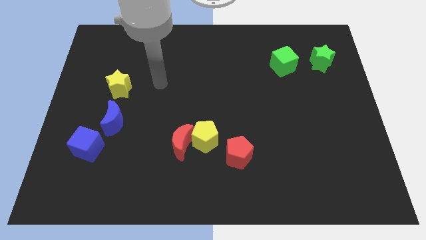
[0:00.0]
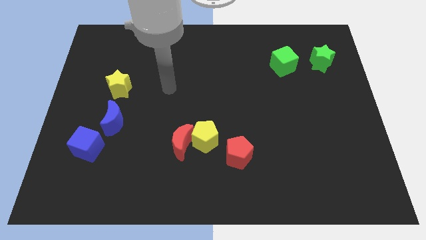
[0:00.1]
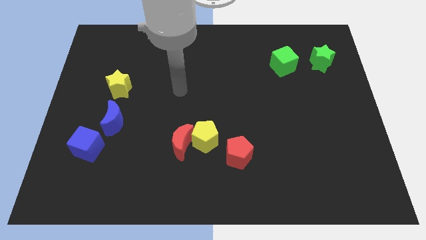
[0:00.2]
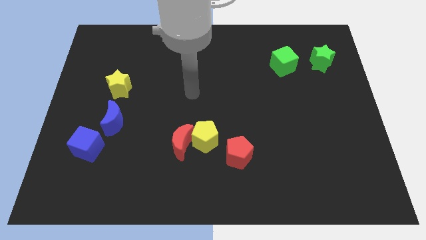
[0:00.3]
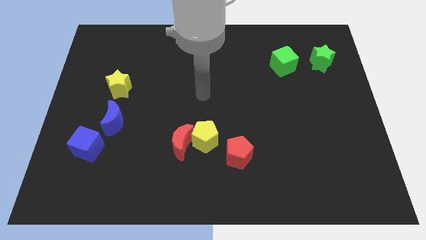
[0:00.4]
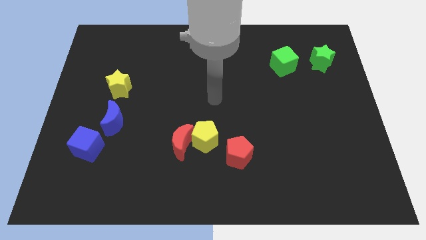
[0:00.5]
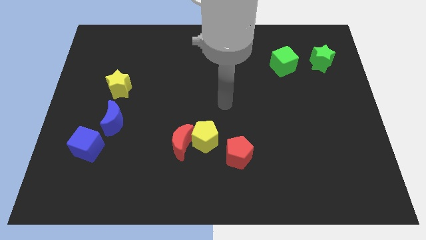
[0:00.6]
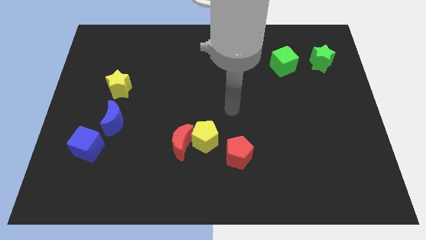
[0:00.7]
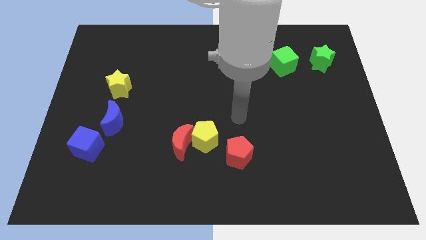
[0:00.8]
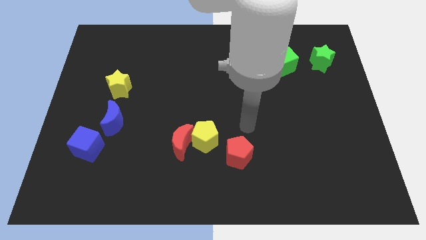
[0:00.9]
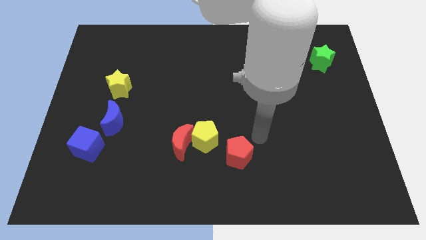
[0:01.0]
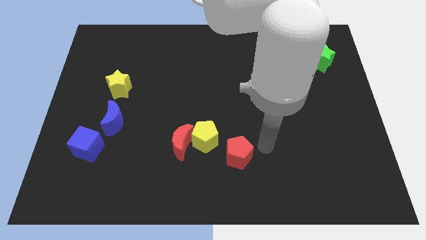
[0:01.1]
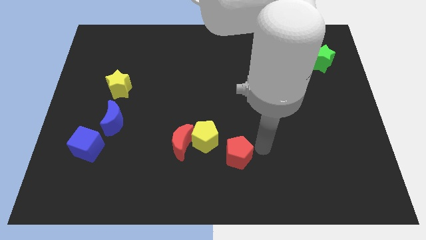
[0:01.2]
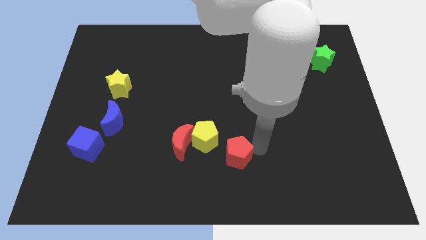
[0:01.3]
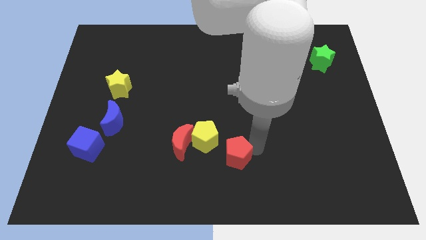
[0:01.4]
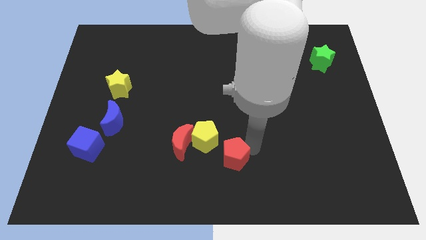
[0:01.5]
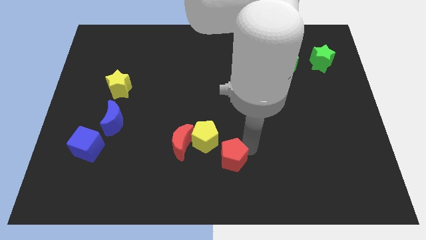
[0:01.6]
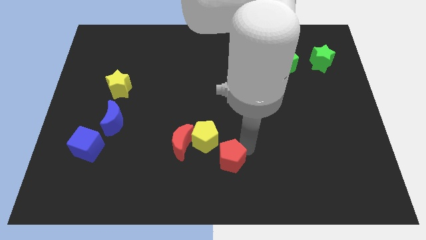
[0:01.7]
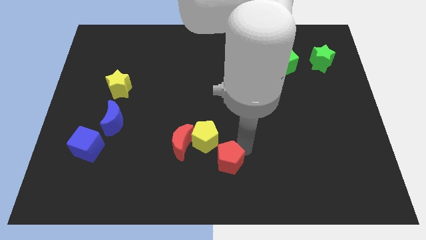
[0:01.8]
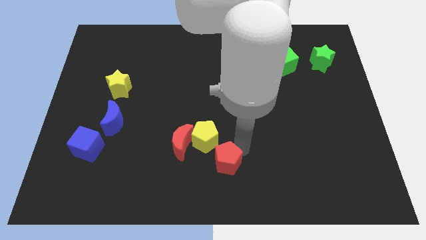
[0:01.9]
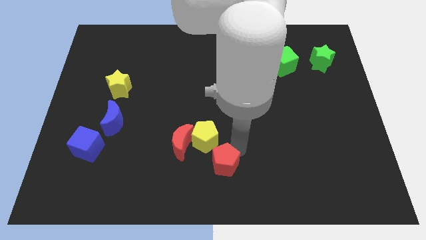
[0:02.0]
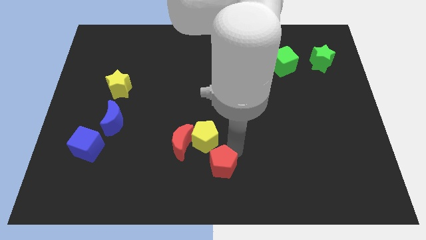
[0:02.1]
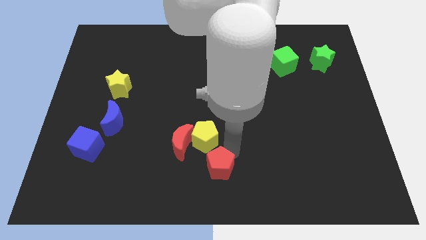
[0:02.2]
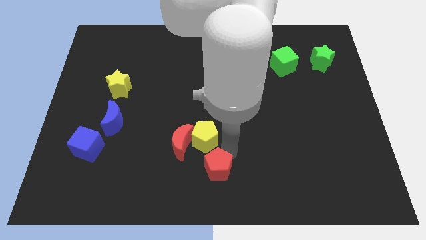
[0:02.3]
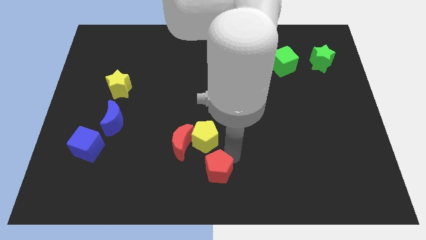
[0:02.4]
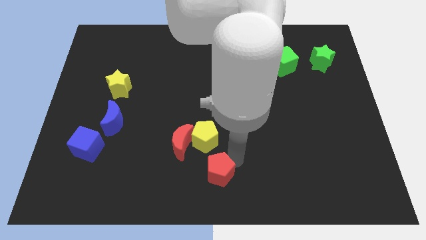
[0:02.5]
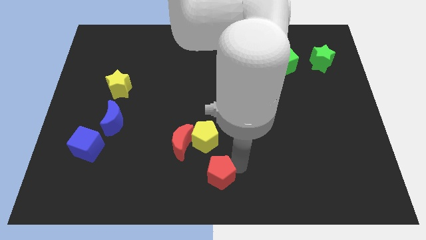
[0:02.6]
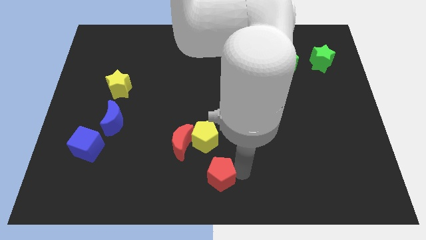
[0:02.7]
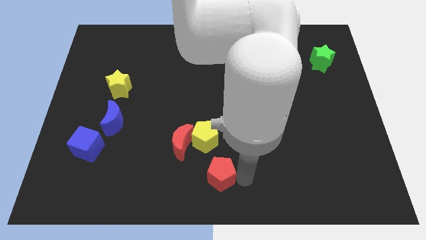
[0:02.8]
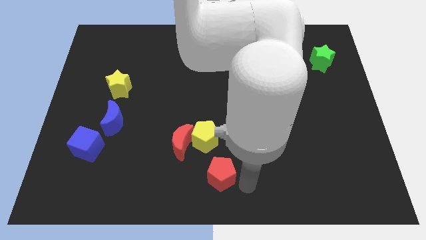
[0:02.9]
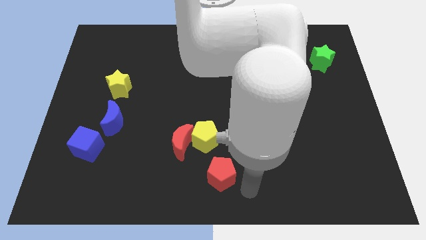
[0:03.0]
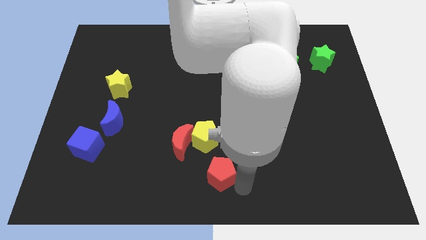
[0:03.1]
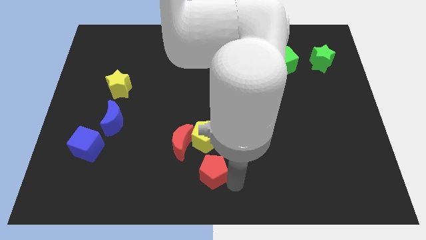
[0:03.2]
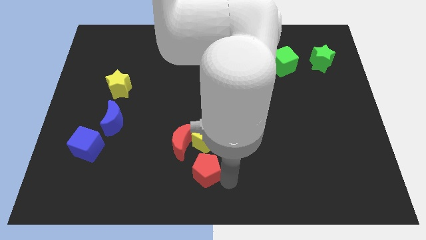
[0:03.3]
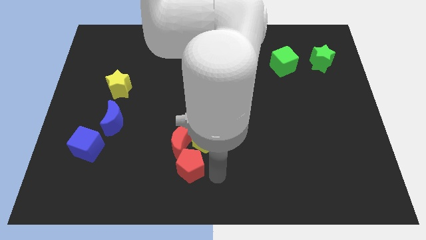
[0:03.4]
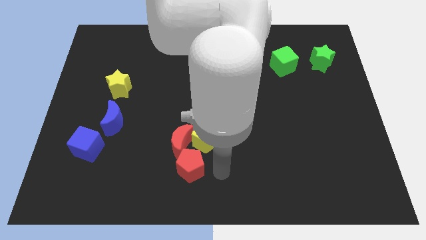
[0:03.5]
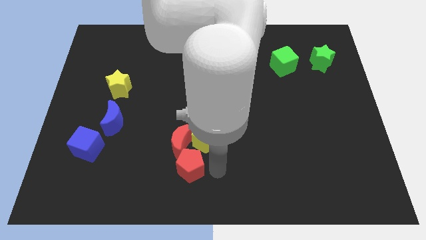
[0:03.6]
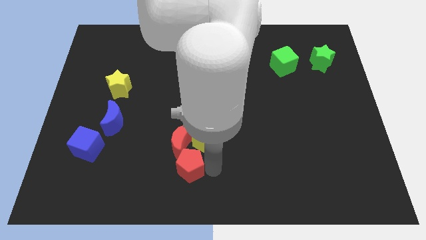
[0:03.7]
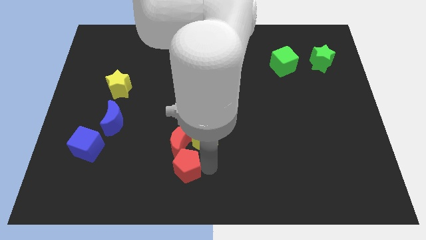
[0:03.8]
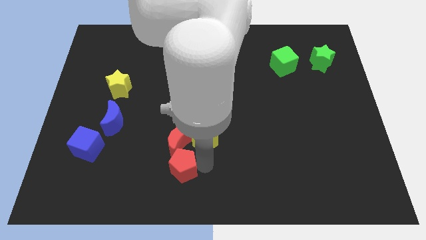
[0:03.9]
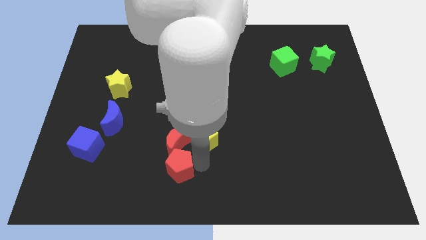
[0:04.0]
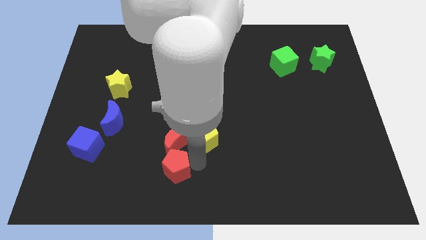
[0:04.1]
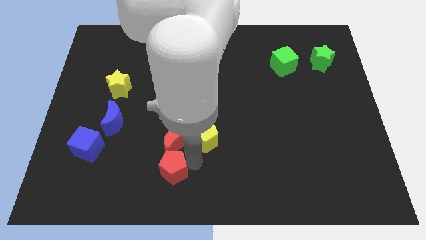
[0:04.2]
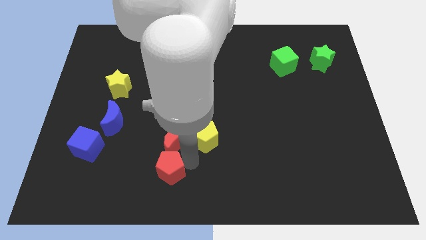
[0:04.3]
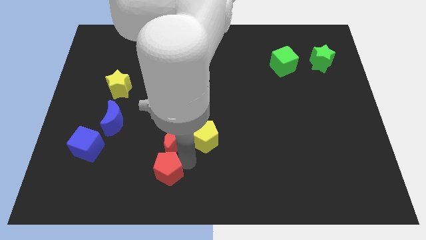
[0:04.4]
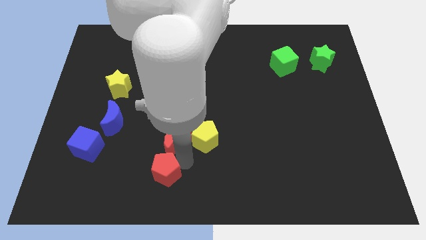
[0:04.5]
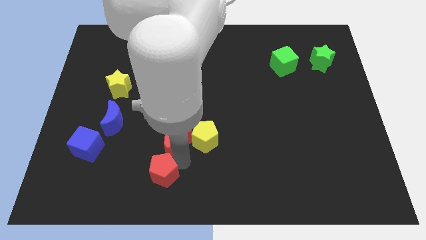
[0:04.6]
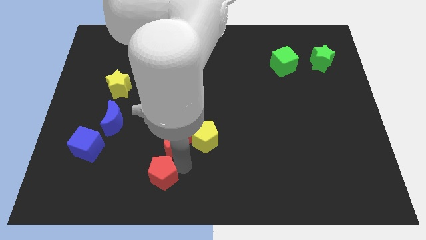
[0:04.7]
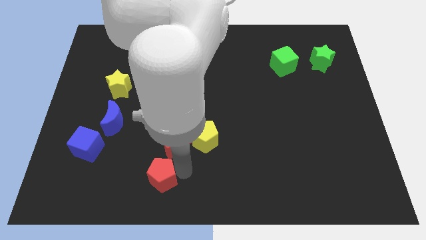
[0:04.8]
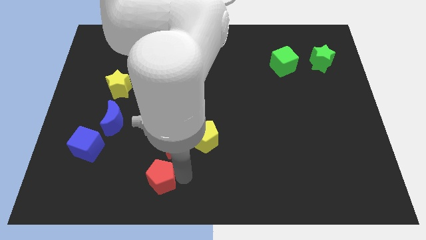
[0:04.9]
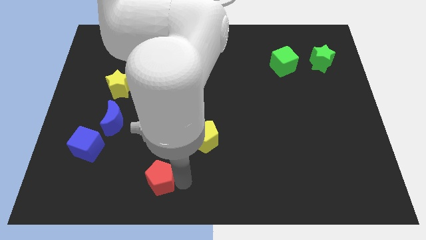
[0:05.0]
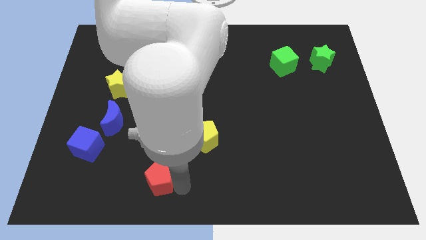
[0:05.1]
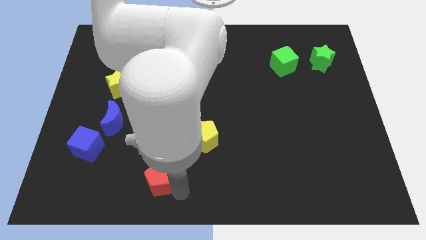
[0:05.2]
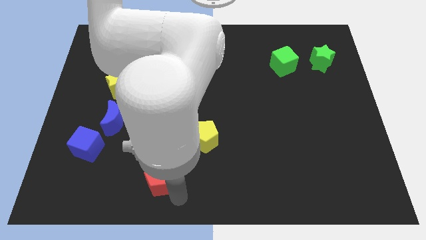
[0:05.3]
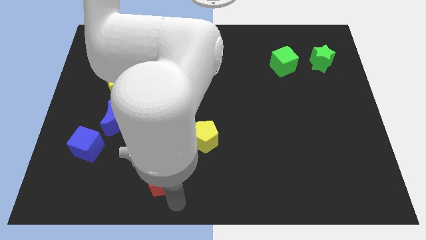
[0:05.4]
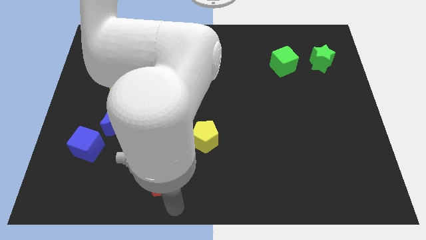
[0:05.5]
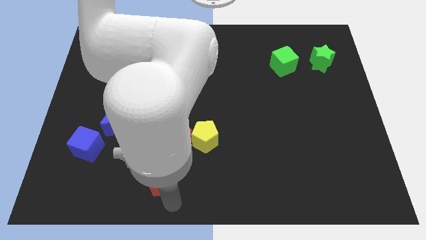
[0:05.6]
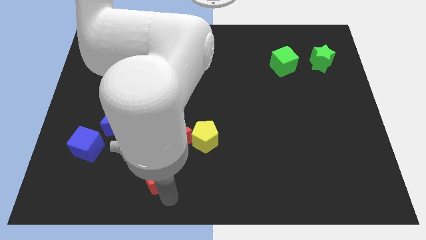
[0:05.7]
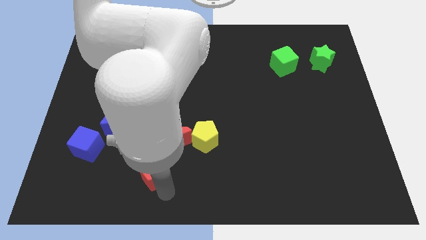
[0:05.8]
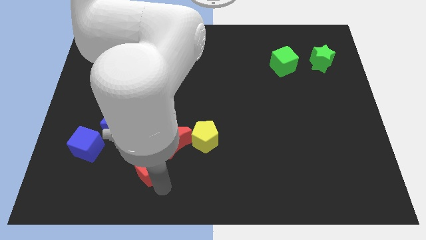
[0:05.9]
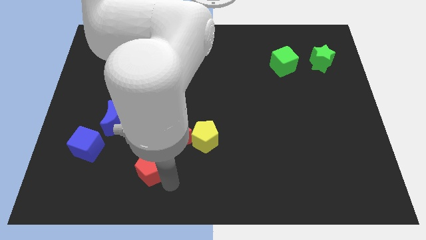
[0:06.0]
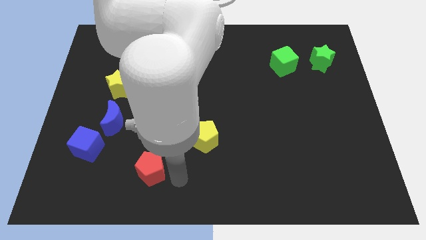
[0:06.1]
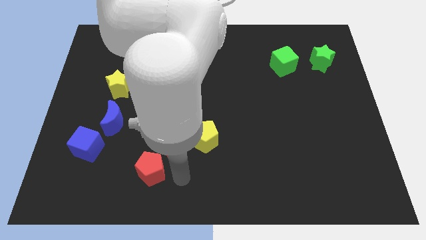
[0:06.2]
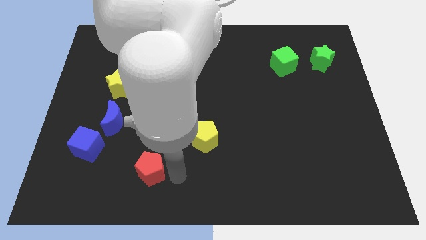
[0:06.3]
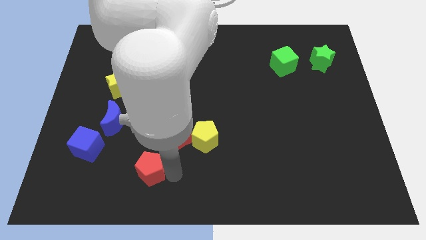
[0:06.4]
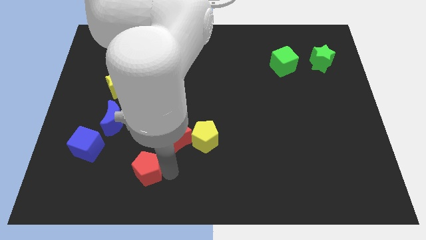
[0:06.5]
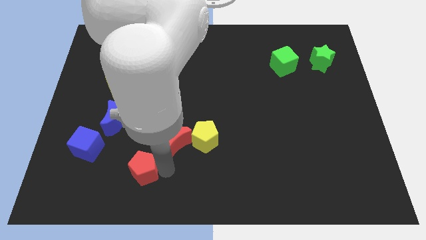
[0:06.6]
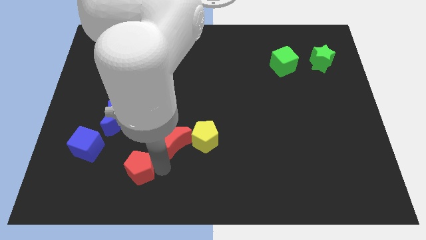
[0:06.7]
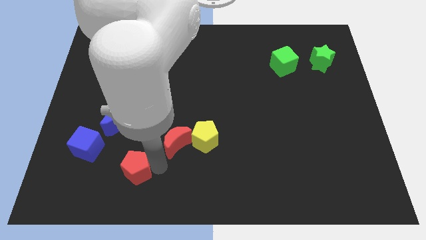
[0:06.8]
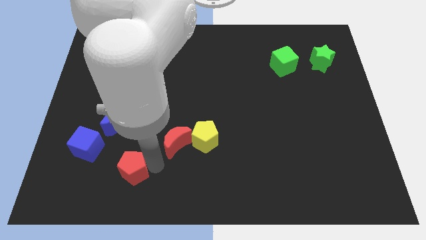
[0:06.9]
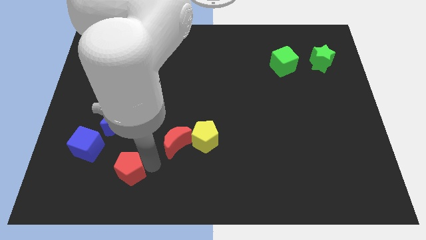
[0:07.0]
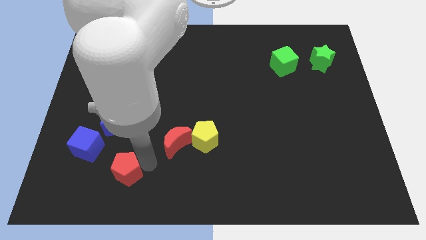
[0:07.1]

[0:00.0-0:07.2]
move the red pentagon to the bottom of the blue moon

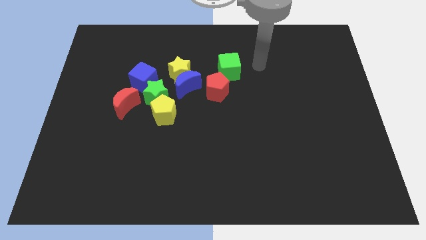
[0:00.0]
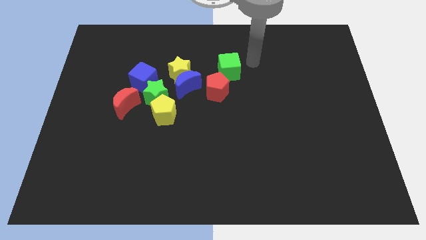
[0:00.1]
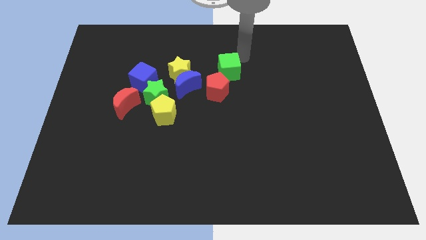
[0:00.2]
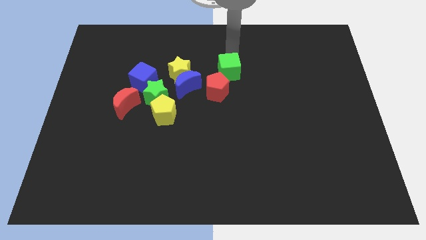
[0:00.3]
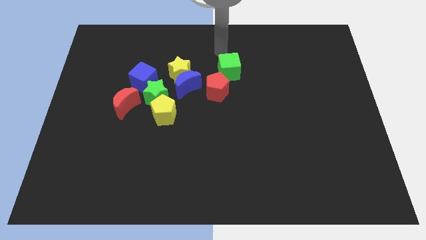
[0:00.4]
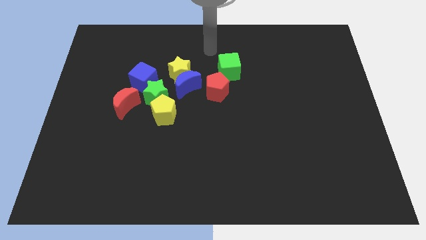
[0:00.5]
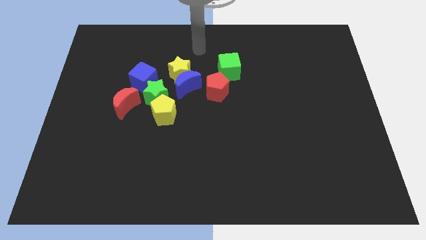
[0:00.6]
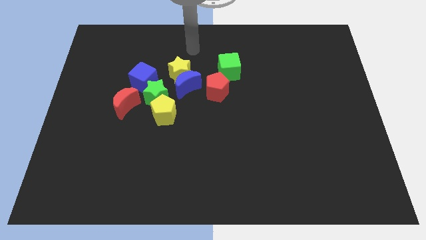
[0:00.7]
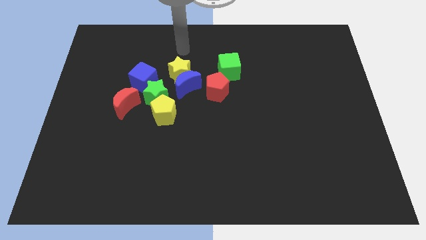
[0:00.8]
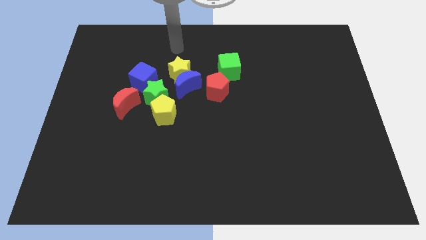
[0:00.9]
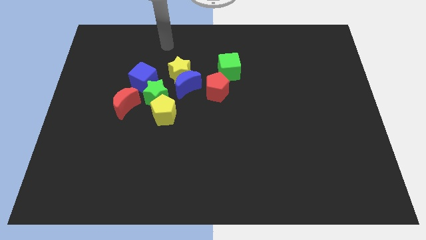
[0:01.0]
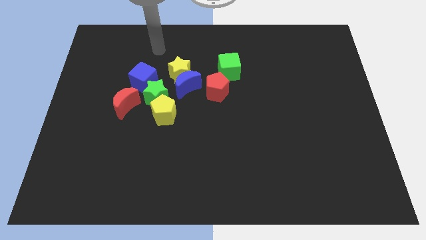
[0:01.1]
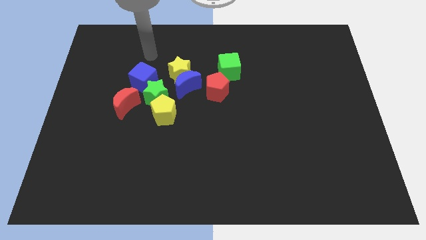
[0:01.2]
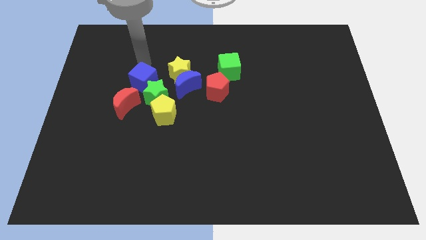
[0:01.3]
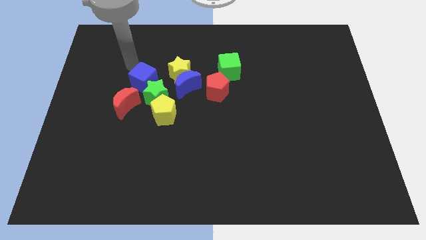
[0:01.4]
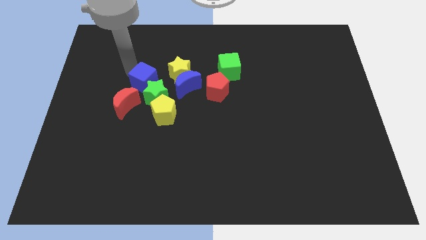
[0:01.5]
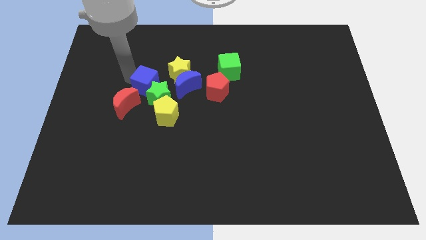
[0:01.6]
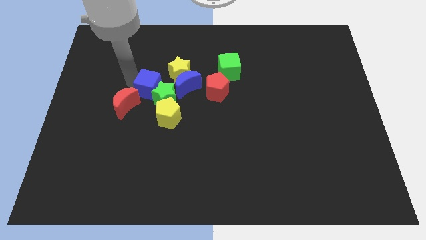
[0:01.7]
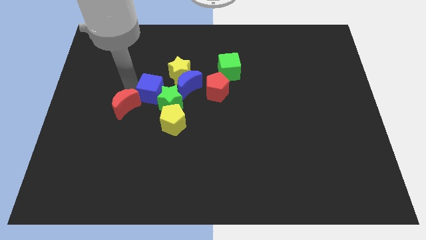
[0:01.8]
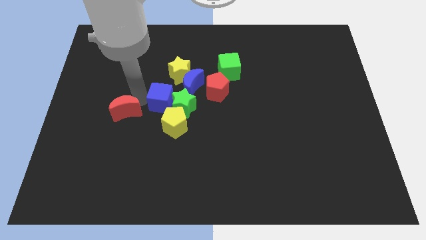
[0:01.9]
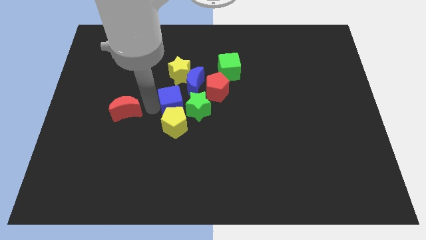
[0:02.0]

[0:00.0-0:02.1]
slide the green star diagonally down and to the right of the blue moon
